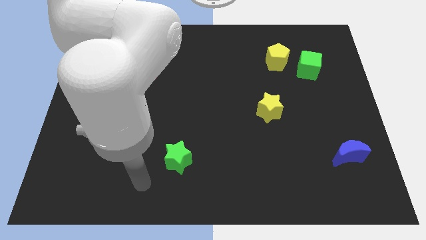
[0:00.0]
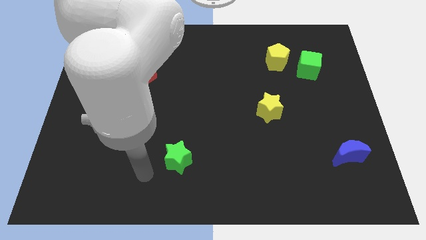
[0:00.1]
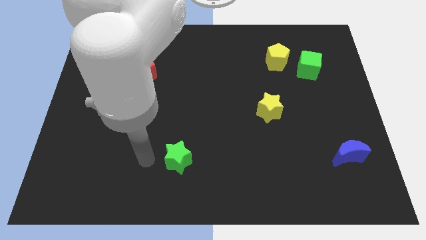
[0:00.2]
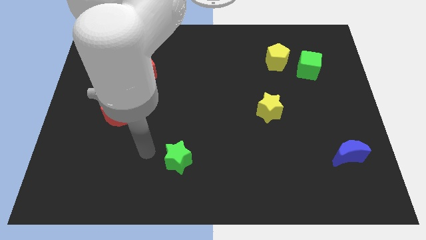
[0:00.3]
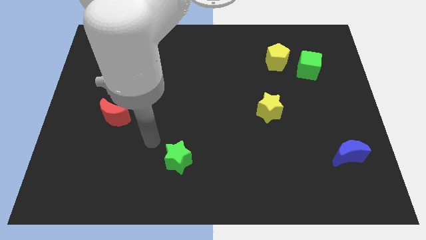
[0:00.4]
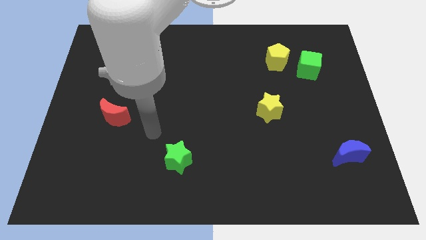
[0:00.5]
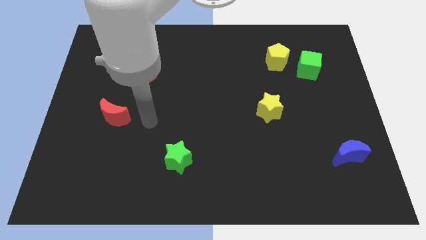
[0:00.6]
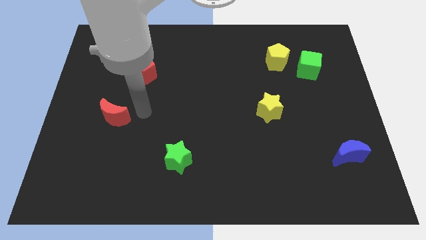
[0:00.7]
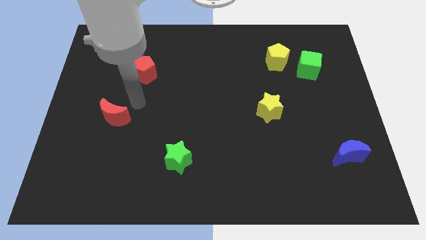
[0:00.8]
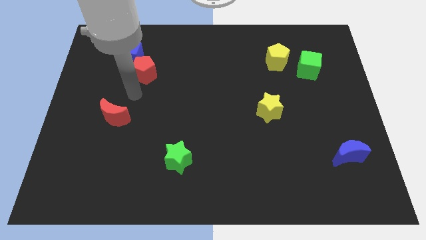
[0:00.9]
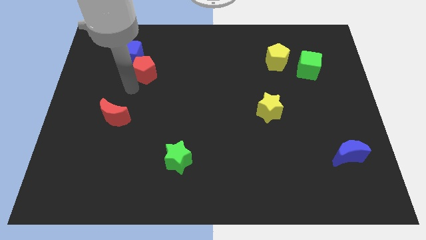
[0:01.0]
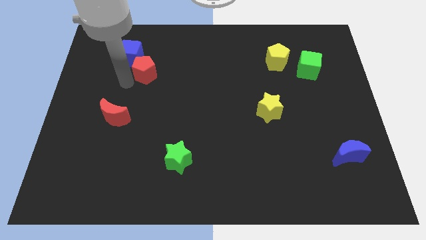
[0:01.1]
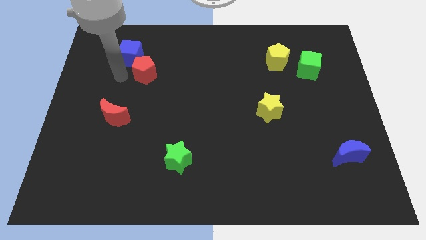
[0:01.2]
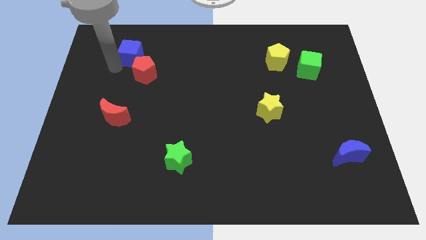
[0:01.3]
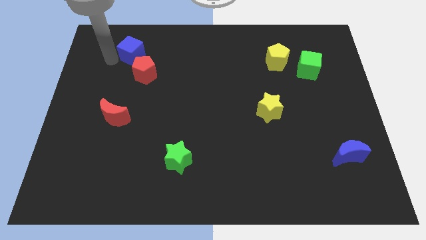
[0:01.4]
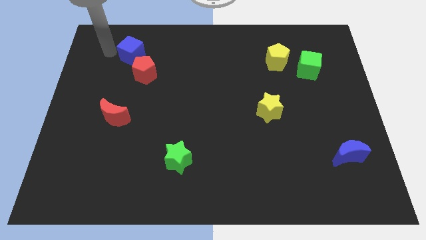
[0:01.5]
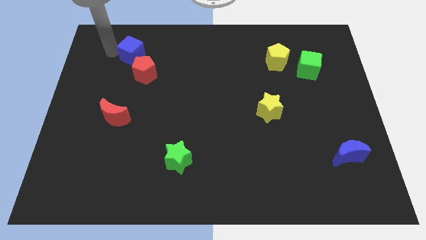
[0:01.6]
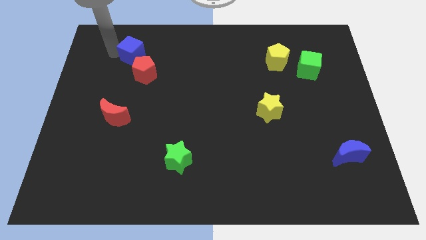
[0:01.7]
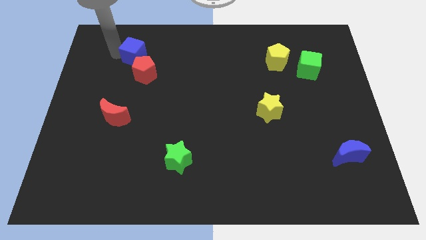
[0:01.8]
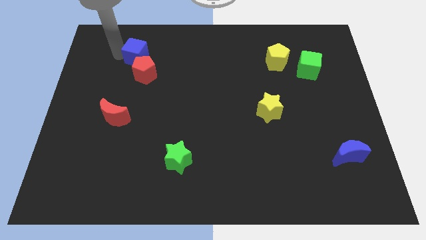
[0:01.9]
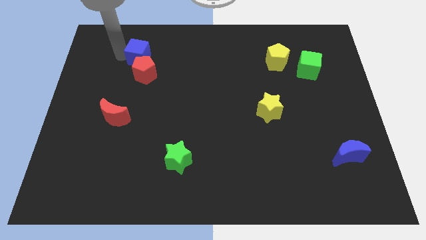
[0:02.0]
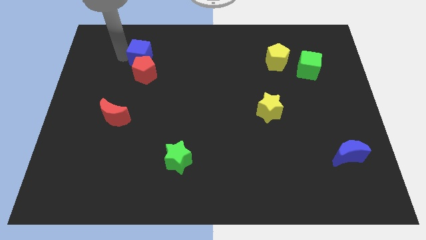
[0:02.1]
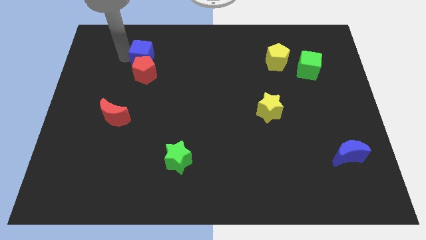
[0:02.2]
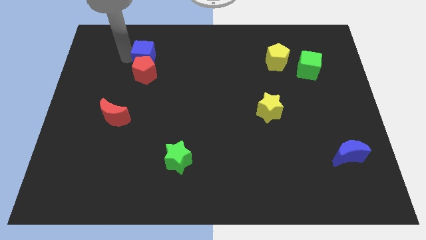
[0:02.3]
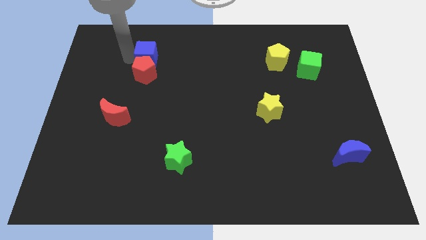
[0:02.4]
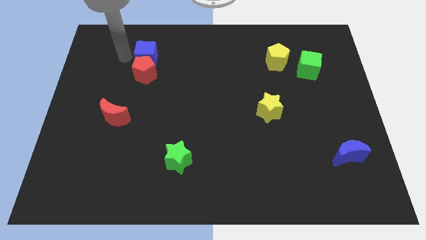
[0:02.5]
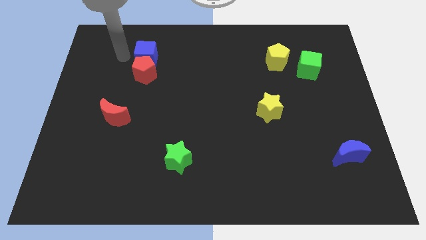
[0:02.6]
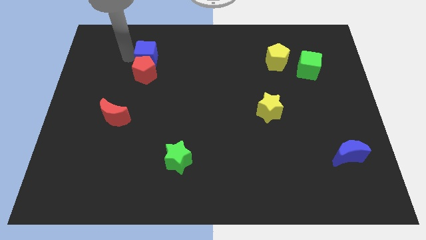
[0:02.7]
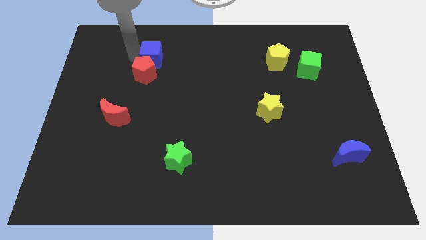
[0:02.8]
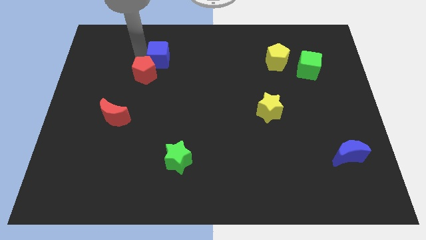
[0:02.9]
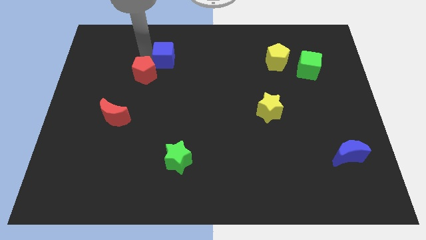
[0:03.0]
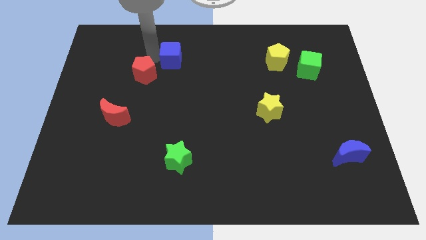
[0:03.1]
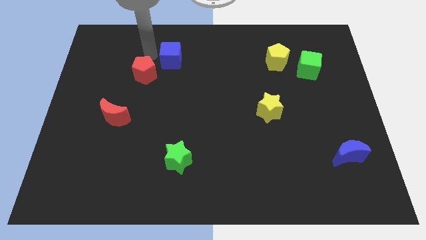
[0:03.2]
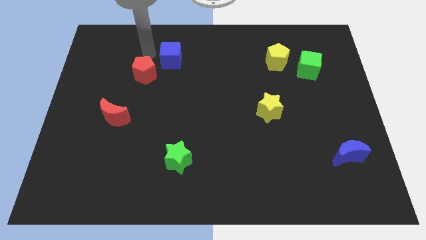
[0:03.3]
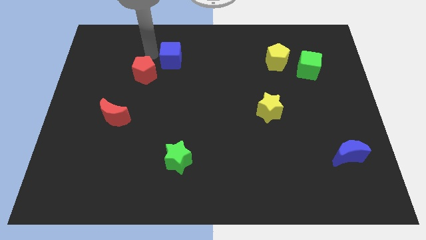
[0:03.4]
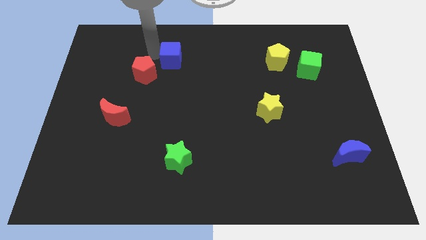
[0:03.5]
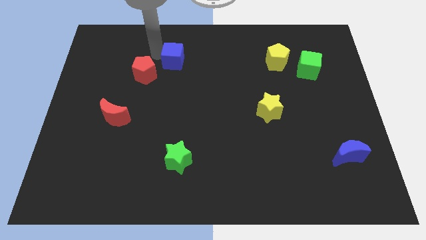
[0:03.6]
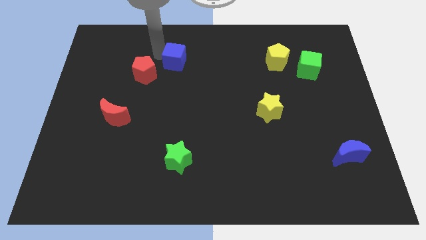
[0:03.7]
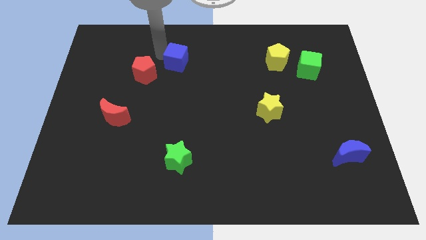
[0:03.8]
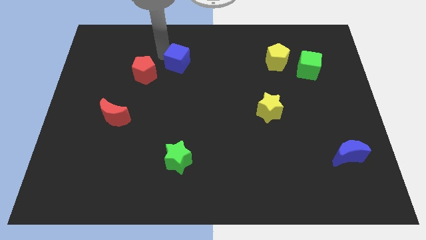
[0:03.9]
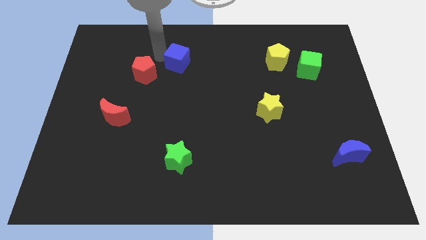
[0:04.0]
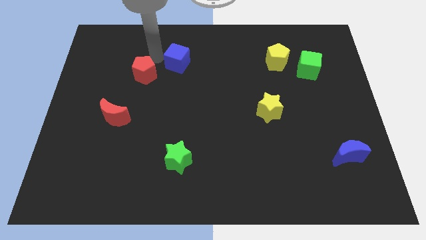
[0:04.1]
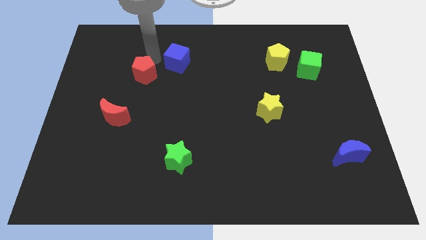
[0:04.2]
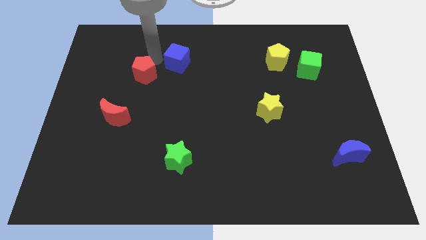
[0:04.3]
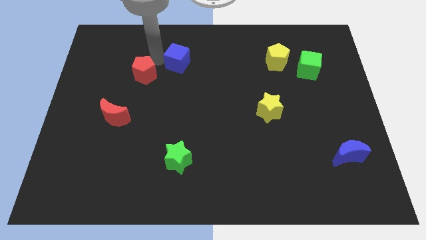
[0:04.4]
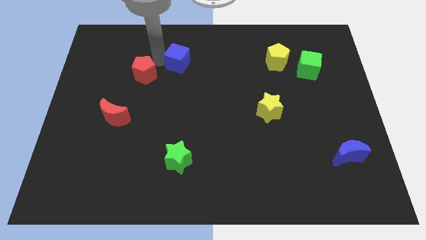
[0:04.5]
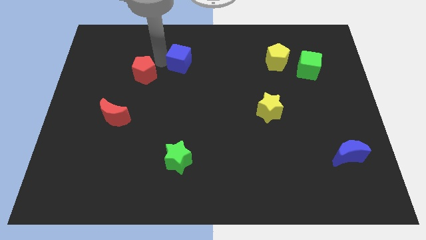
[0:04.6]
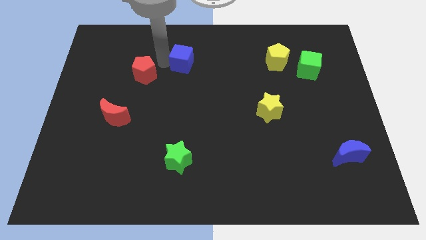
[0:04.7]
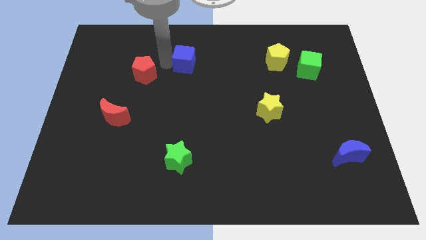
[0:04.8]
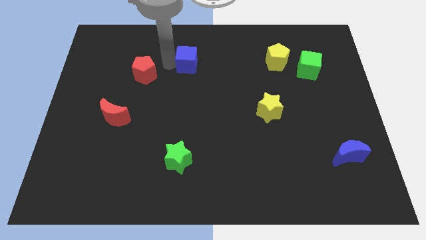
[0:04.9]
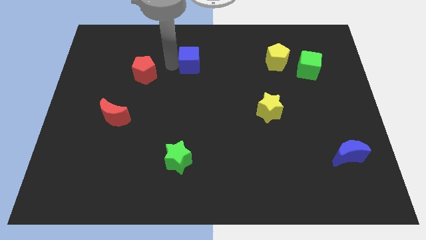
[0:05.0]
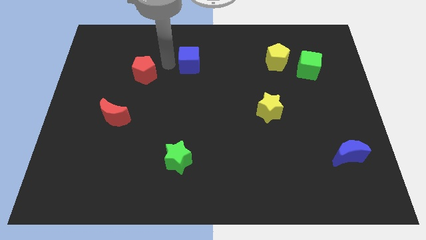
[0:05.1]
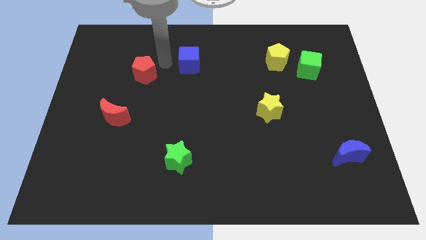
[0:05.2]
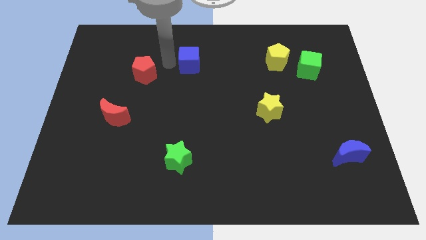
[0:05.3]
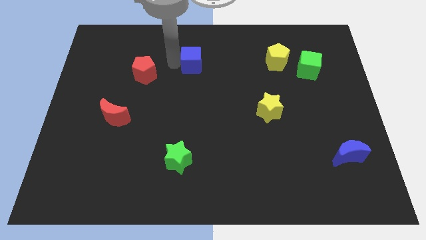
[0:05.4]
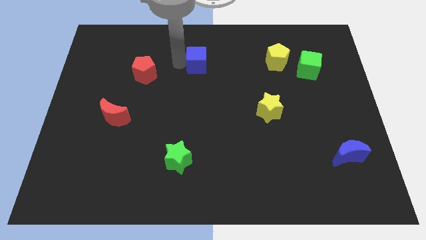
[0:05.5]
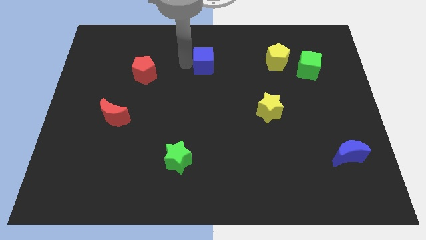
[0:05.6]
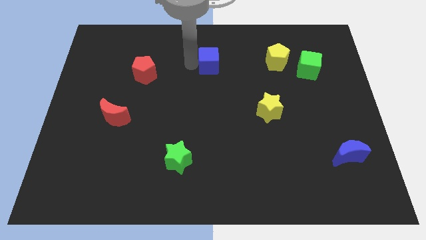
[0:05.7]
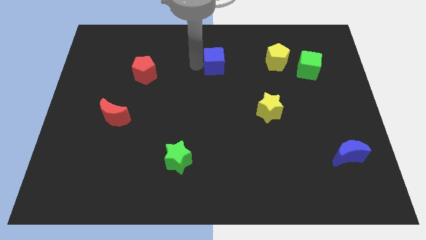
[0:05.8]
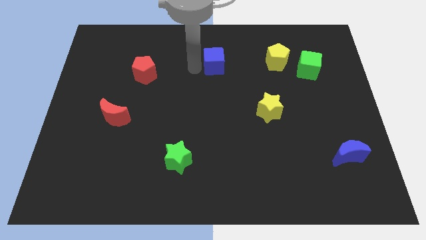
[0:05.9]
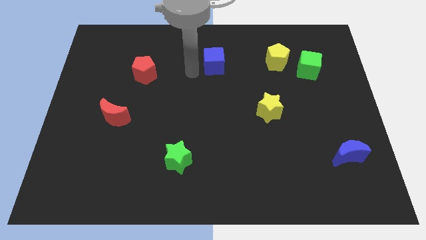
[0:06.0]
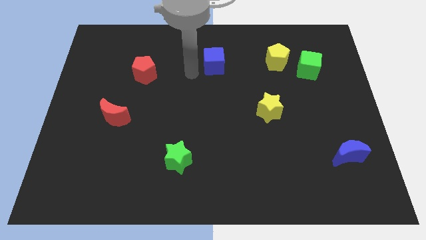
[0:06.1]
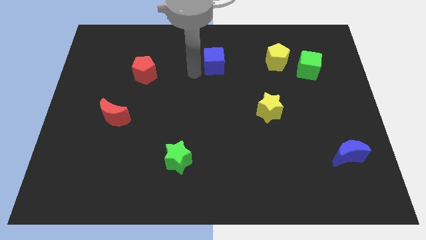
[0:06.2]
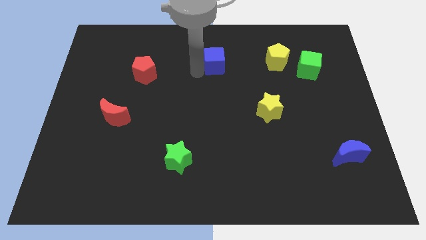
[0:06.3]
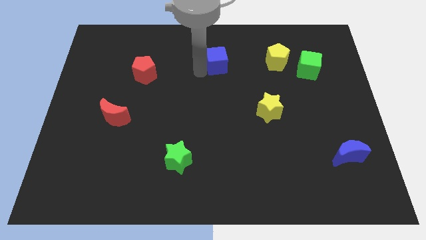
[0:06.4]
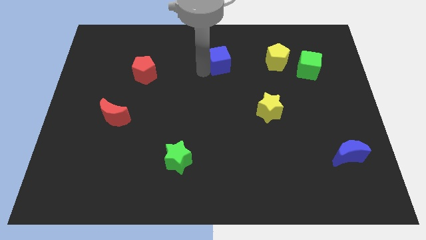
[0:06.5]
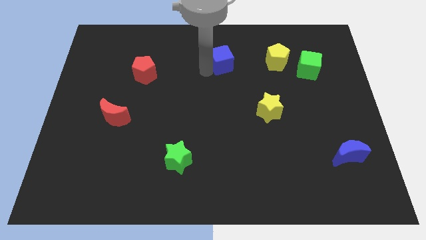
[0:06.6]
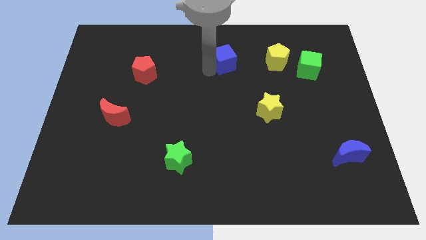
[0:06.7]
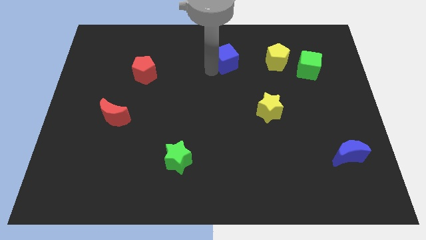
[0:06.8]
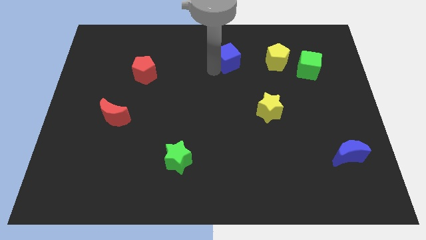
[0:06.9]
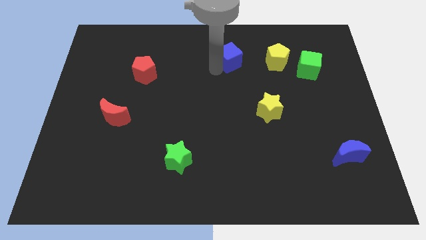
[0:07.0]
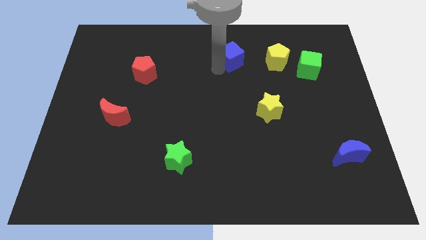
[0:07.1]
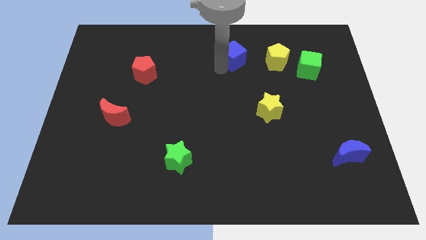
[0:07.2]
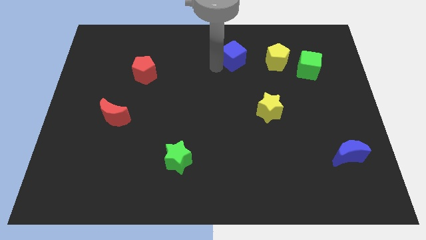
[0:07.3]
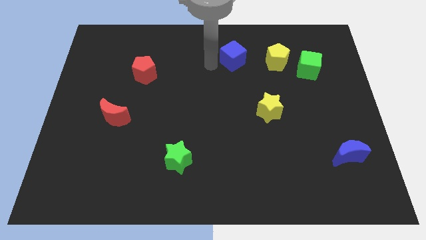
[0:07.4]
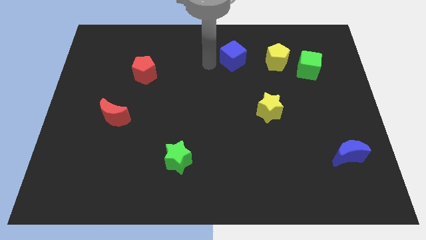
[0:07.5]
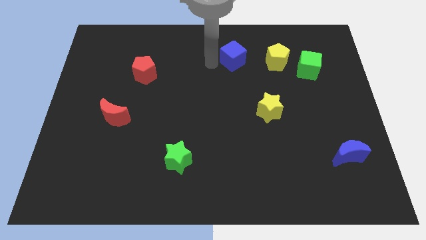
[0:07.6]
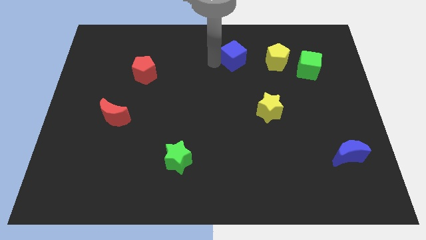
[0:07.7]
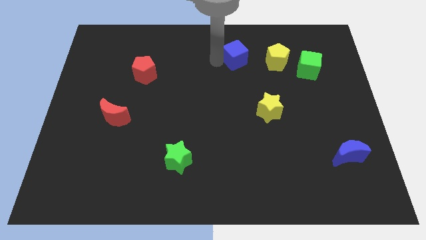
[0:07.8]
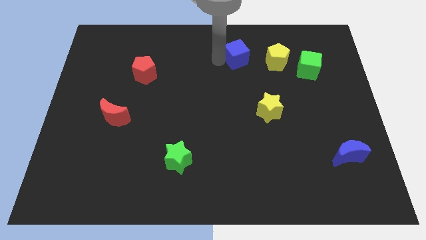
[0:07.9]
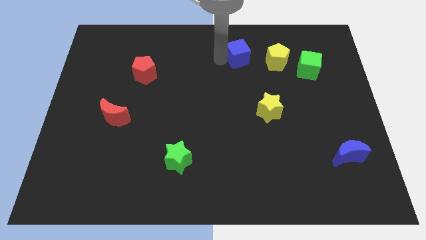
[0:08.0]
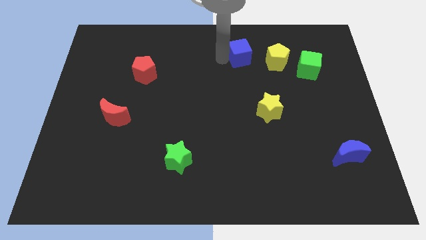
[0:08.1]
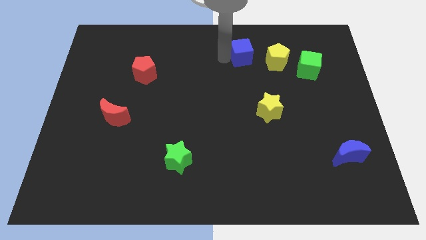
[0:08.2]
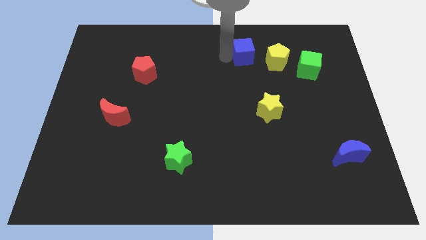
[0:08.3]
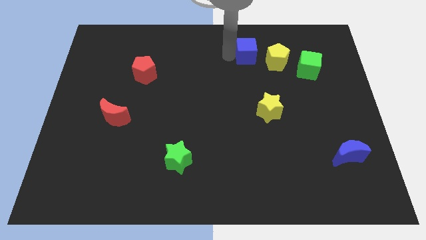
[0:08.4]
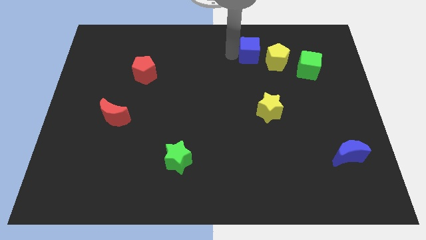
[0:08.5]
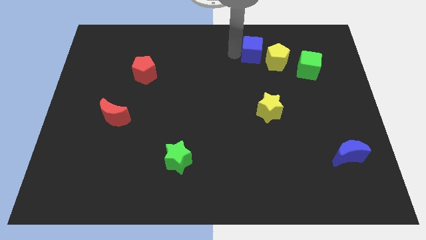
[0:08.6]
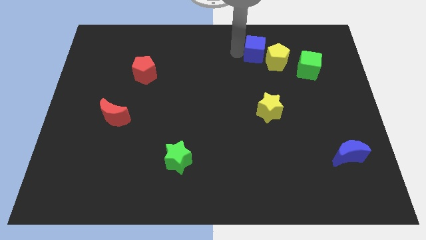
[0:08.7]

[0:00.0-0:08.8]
push the blue cube to the yellow pentagon
